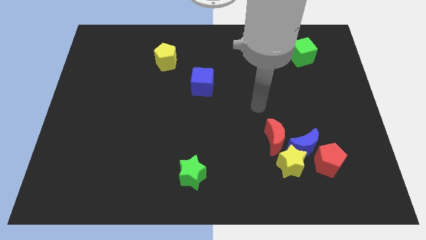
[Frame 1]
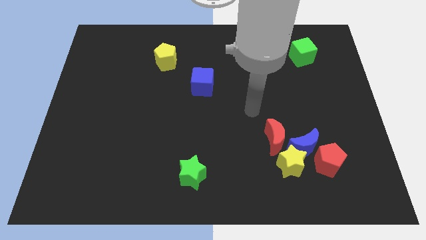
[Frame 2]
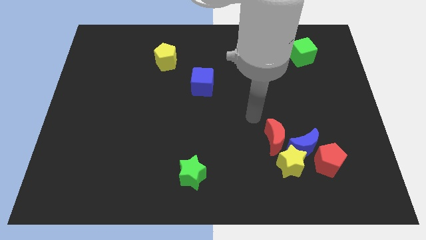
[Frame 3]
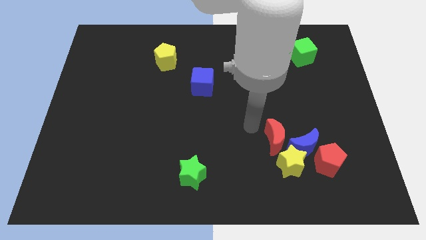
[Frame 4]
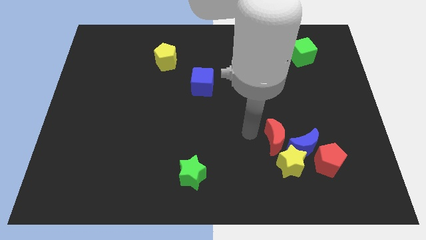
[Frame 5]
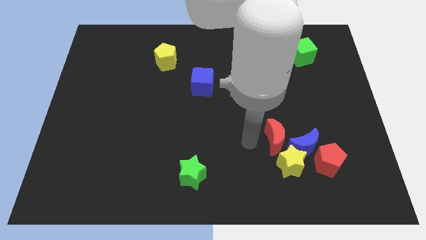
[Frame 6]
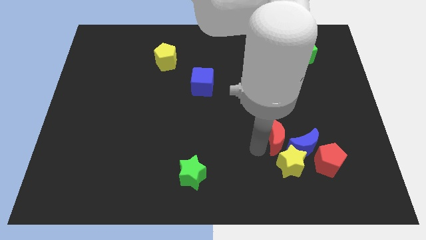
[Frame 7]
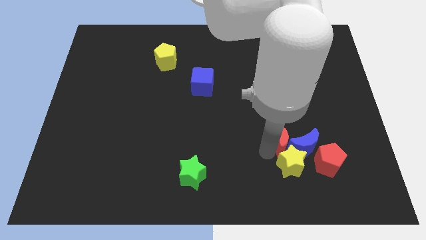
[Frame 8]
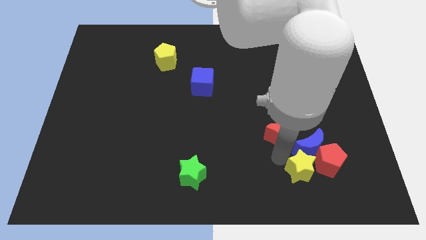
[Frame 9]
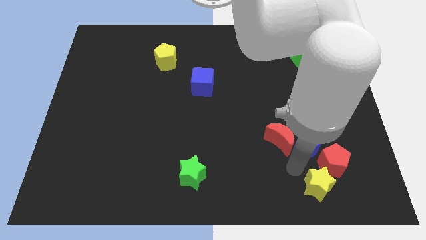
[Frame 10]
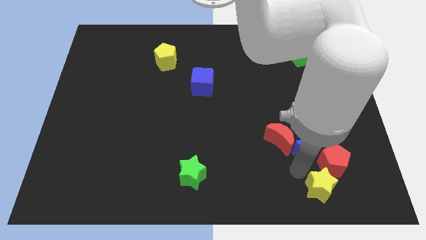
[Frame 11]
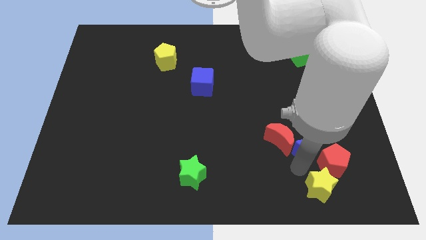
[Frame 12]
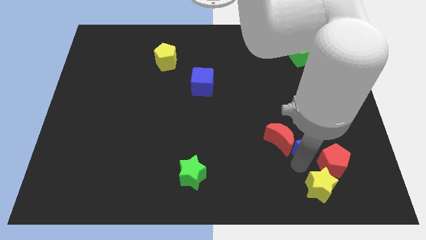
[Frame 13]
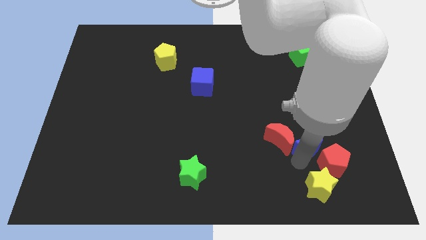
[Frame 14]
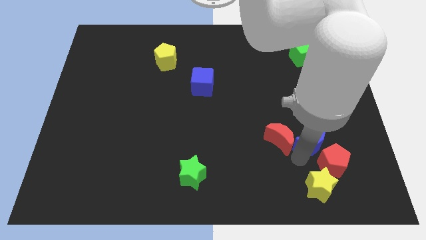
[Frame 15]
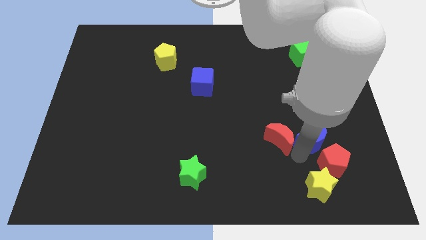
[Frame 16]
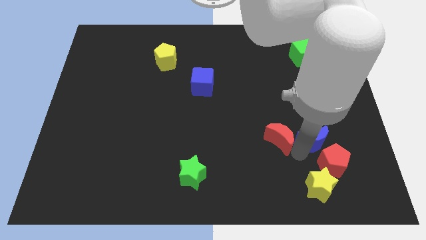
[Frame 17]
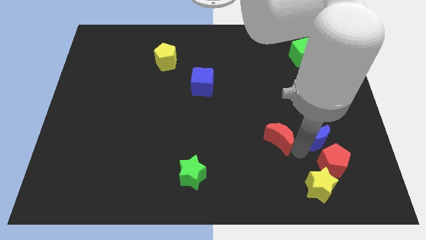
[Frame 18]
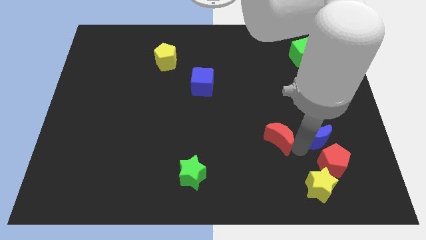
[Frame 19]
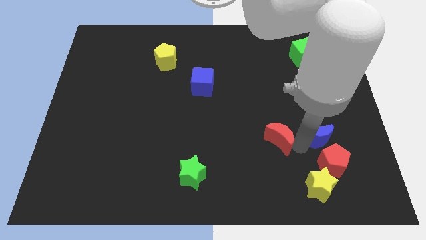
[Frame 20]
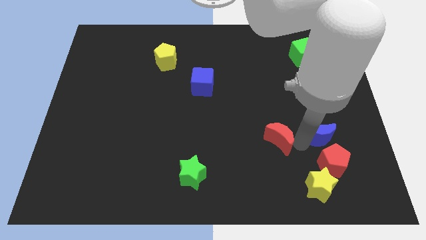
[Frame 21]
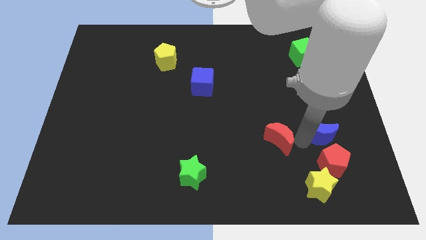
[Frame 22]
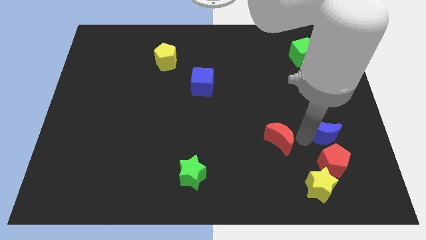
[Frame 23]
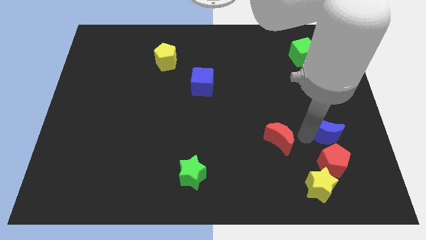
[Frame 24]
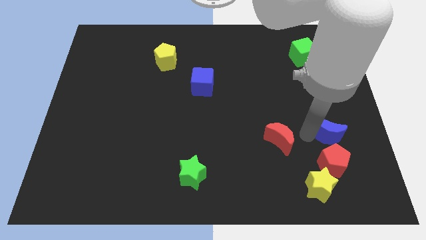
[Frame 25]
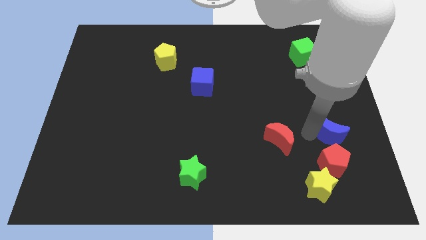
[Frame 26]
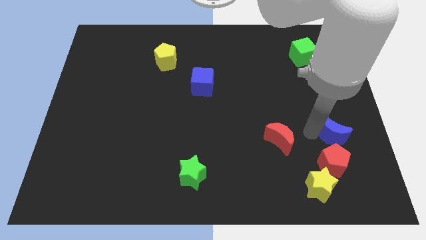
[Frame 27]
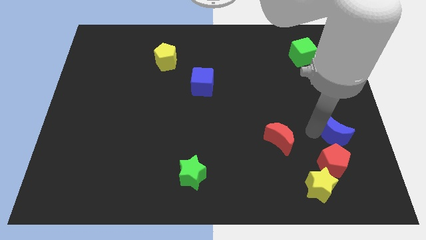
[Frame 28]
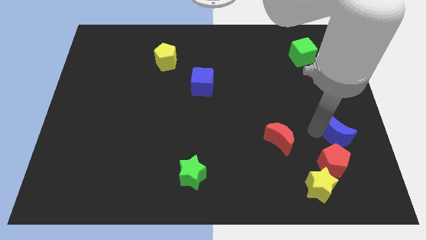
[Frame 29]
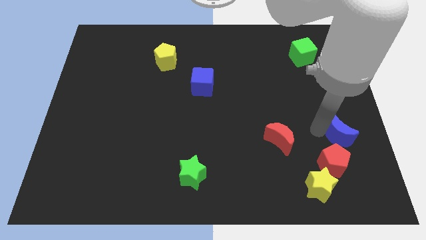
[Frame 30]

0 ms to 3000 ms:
move the blue moon away from the clump

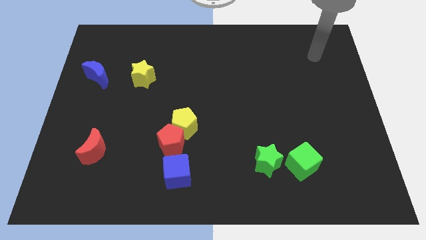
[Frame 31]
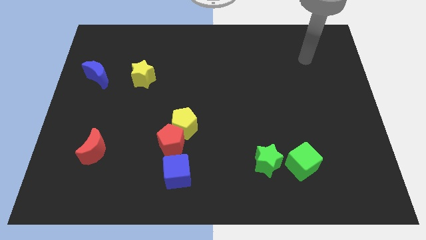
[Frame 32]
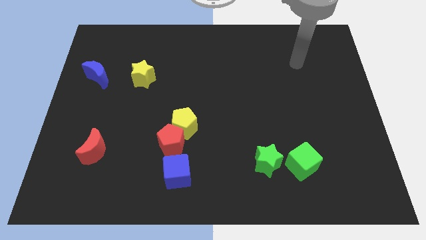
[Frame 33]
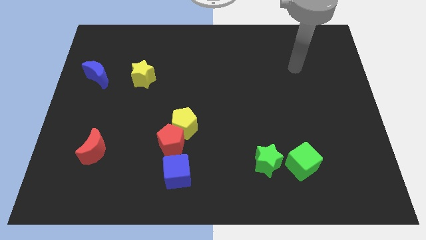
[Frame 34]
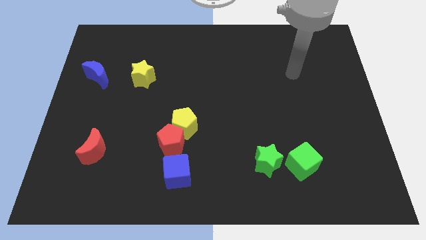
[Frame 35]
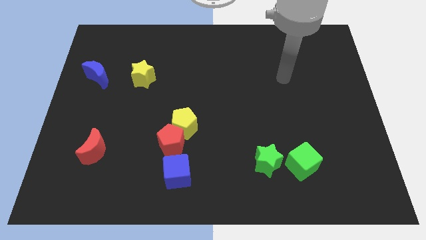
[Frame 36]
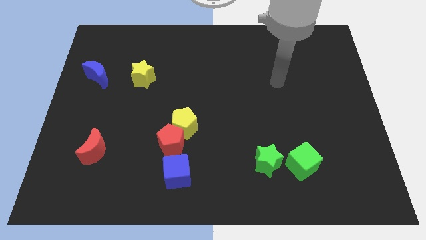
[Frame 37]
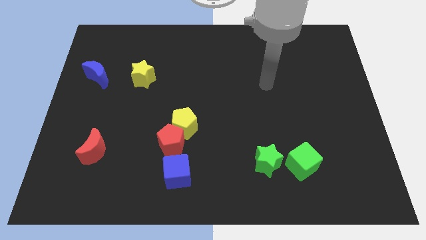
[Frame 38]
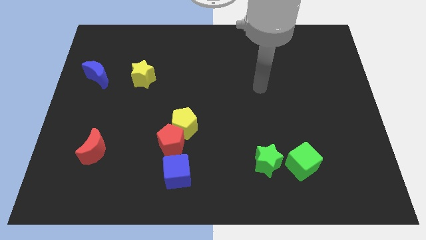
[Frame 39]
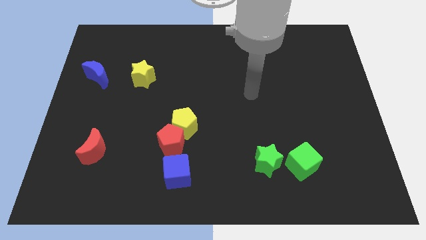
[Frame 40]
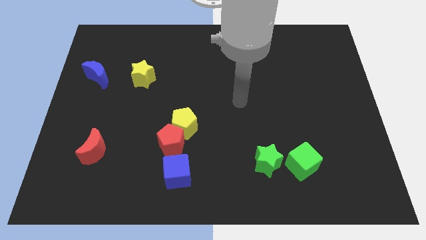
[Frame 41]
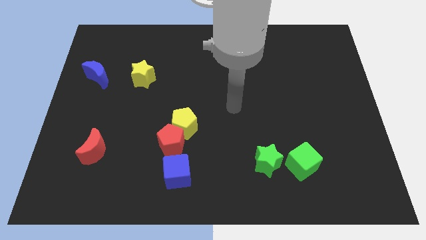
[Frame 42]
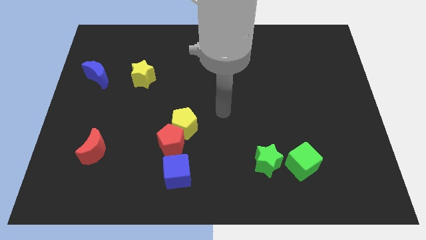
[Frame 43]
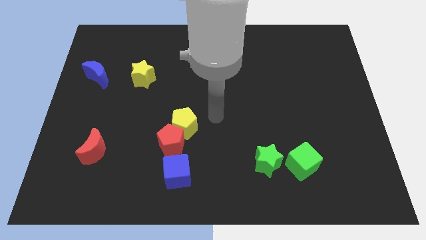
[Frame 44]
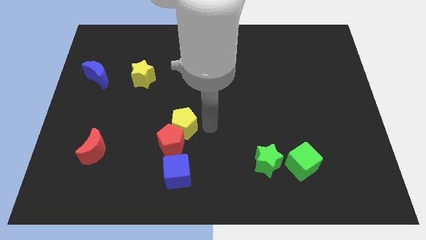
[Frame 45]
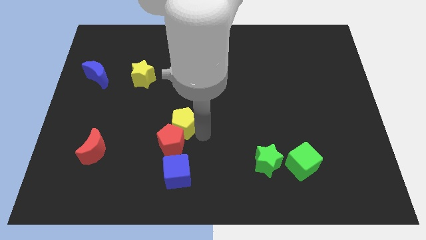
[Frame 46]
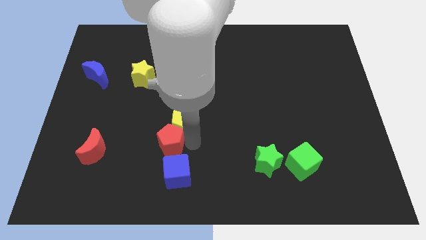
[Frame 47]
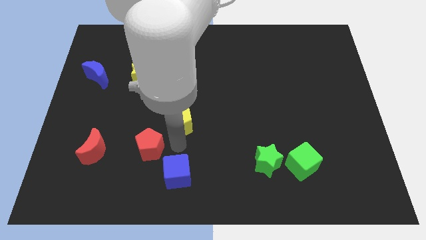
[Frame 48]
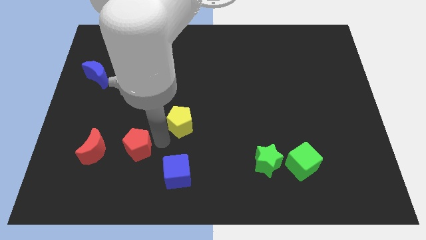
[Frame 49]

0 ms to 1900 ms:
pull the yellow pentagon apart from the red pentagon

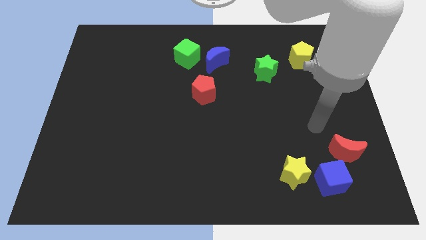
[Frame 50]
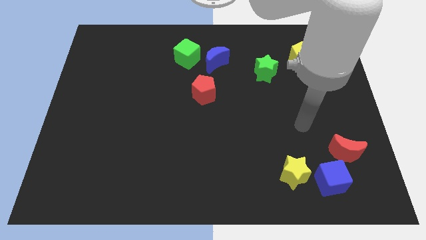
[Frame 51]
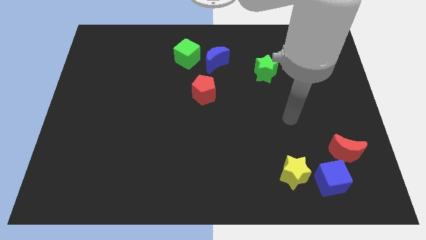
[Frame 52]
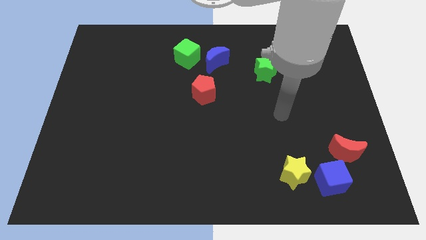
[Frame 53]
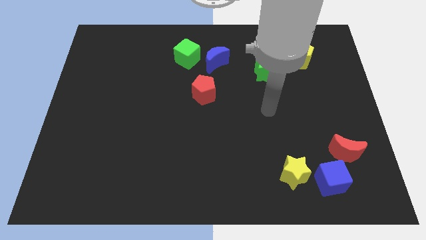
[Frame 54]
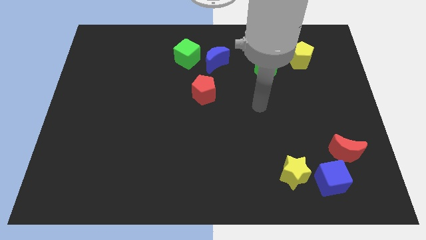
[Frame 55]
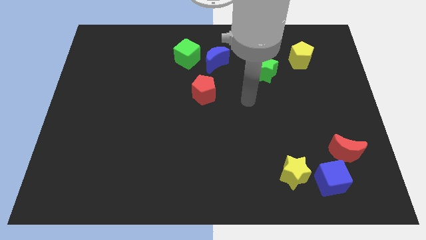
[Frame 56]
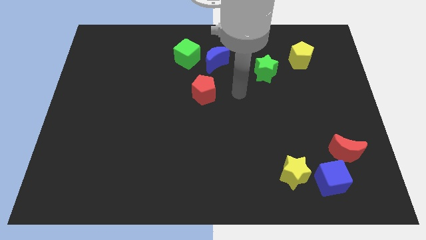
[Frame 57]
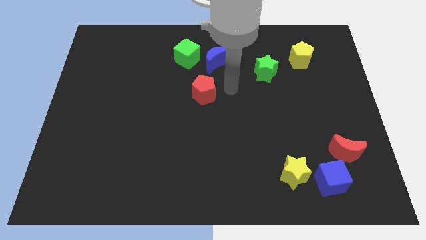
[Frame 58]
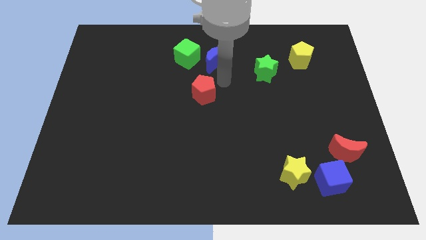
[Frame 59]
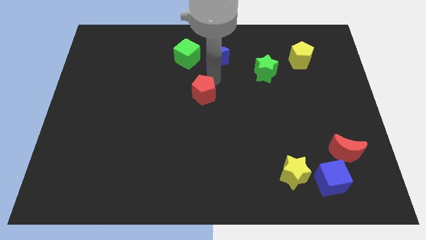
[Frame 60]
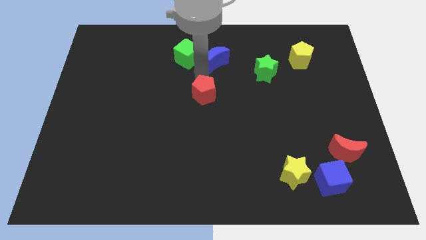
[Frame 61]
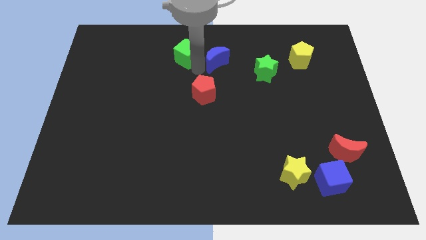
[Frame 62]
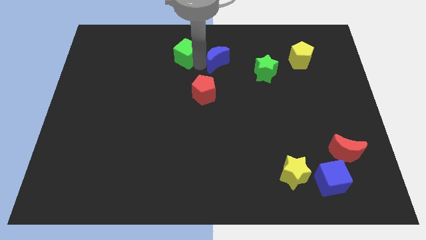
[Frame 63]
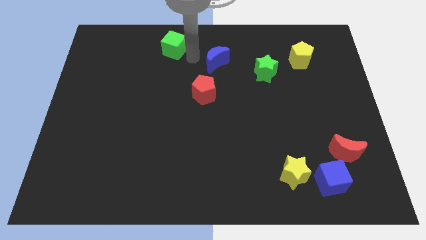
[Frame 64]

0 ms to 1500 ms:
separate the blue moon from the green cube

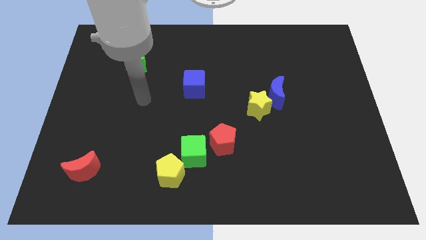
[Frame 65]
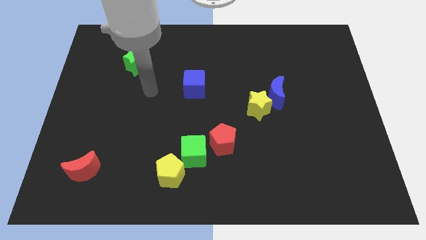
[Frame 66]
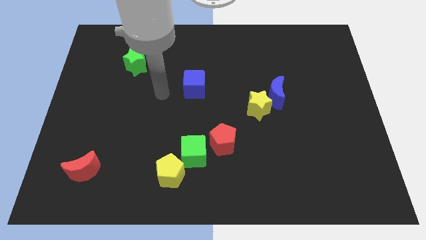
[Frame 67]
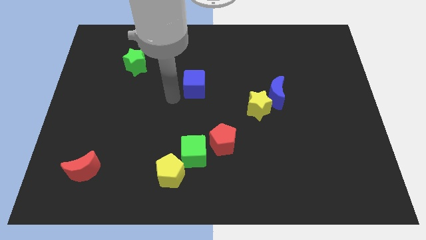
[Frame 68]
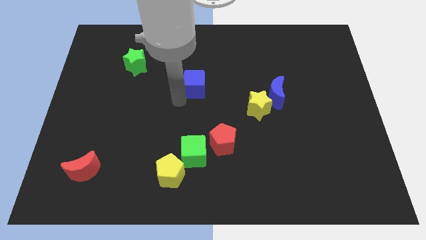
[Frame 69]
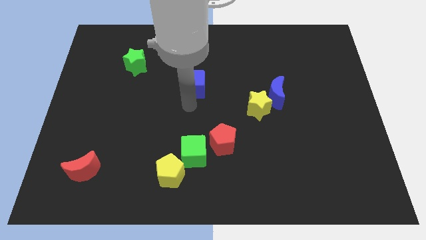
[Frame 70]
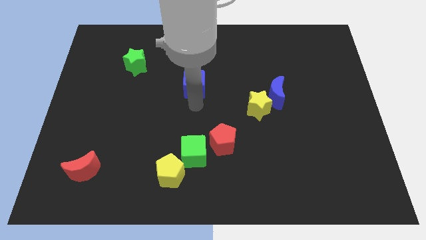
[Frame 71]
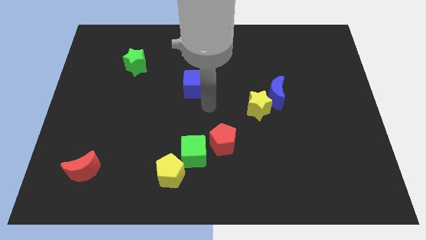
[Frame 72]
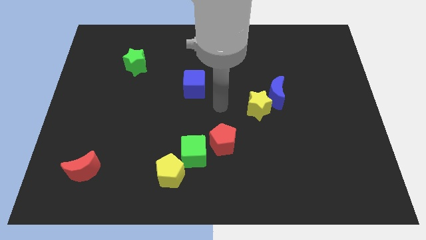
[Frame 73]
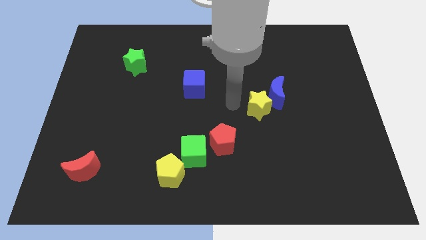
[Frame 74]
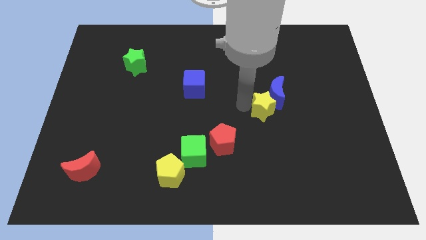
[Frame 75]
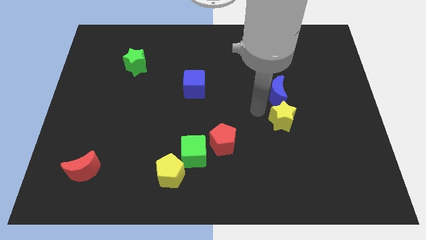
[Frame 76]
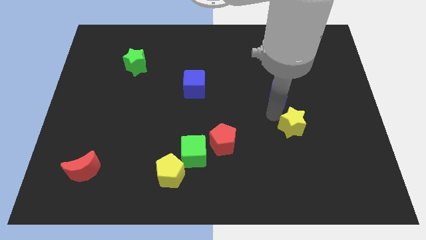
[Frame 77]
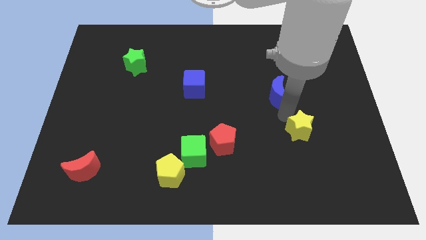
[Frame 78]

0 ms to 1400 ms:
pull the blue moon apart from the yellow star

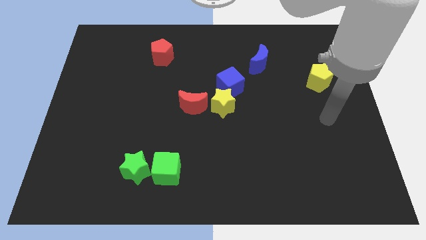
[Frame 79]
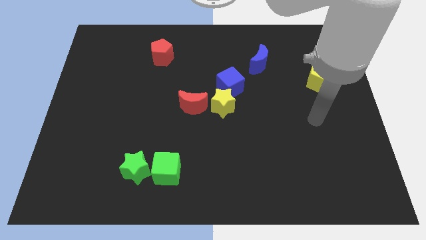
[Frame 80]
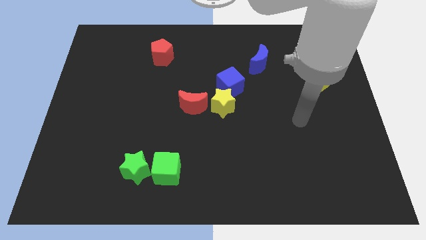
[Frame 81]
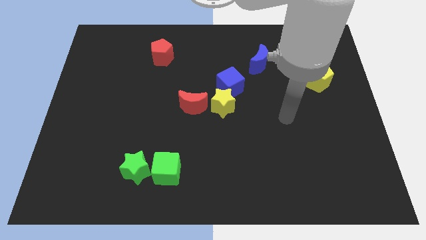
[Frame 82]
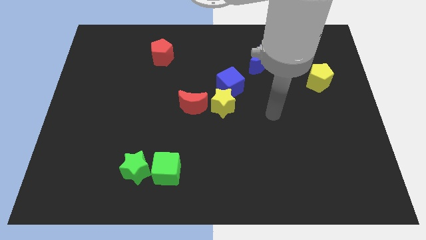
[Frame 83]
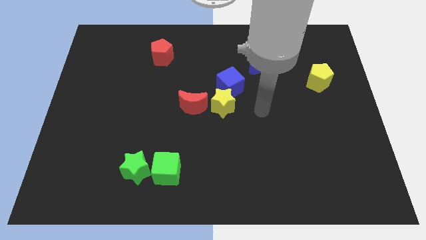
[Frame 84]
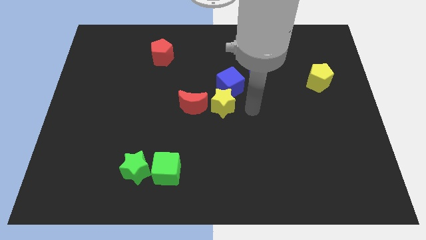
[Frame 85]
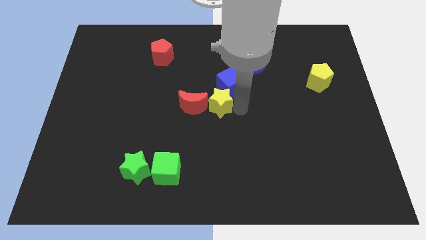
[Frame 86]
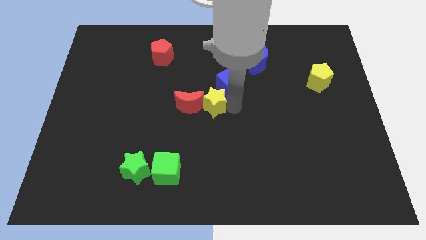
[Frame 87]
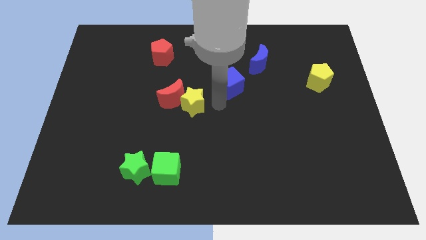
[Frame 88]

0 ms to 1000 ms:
move the blue cube away from the yellow star

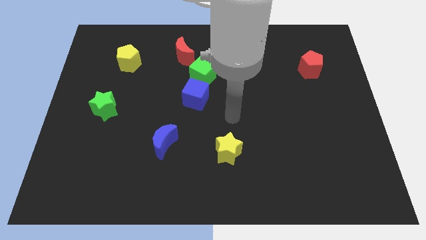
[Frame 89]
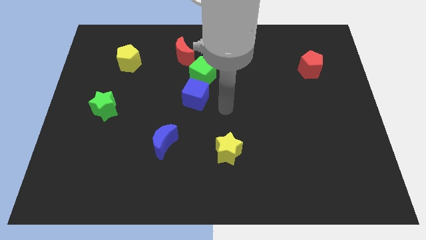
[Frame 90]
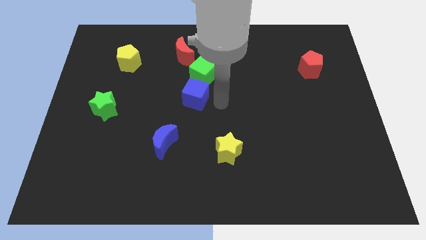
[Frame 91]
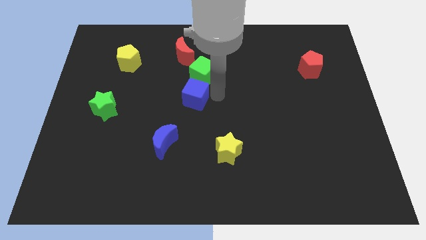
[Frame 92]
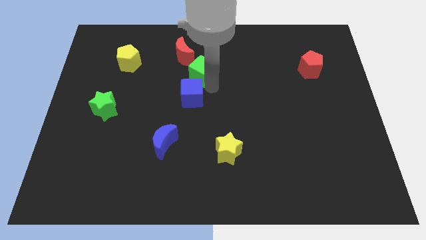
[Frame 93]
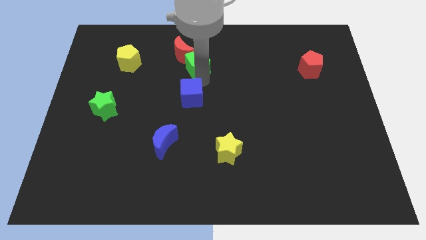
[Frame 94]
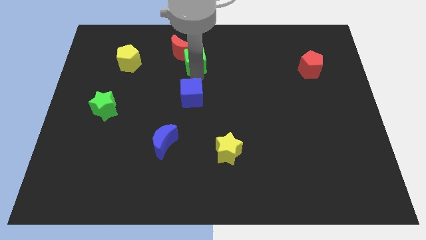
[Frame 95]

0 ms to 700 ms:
move the blue cube away from the green cube
